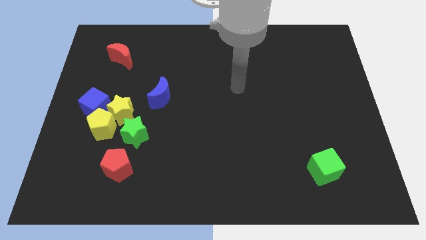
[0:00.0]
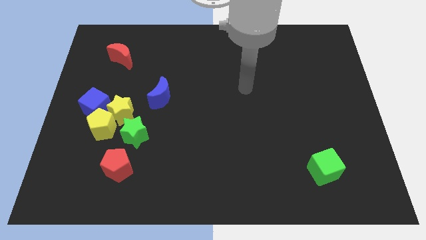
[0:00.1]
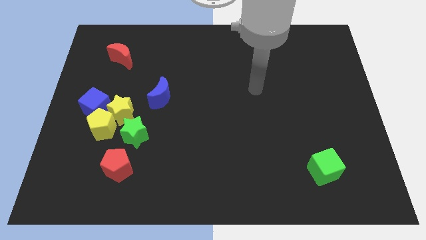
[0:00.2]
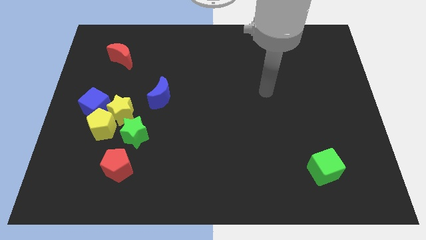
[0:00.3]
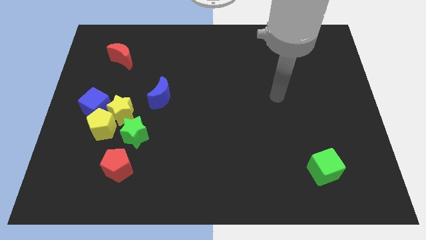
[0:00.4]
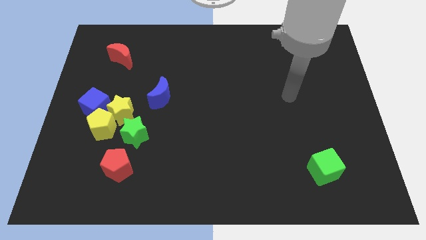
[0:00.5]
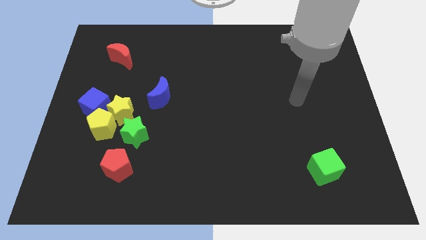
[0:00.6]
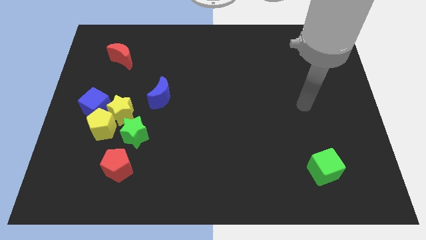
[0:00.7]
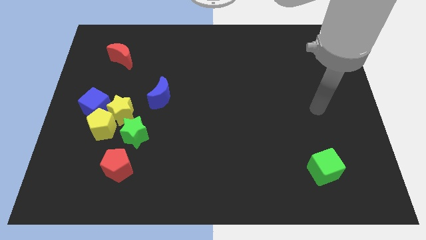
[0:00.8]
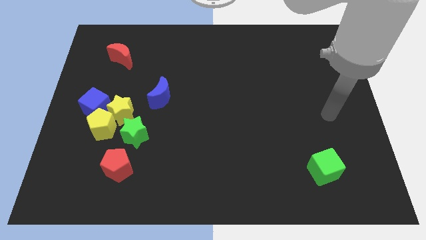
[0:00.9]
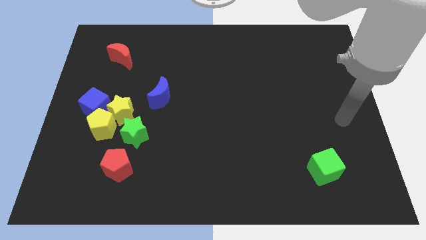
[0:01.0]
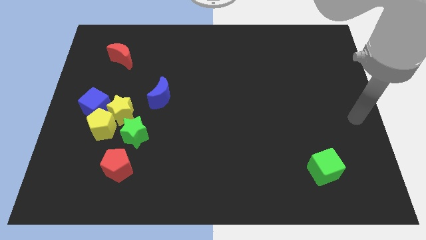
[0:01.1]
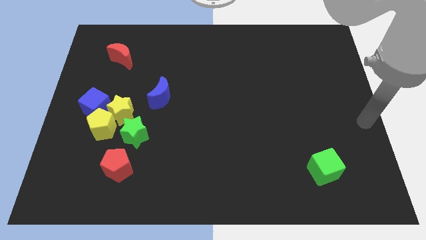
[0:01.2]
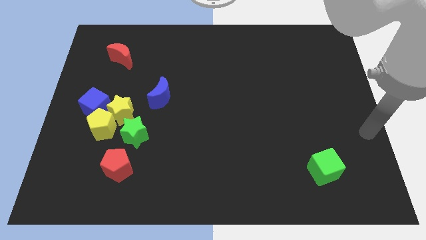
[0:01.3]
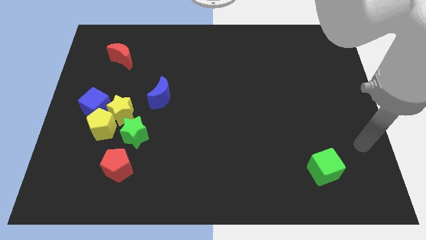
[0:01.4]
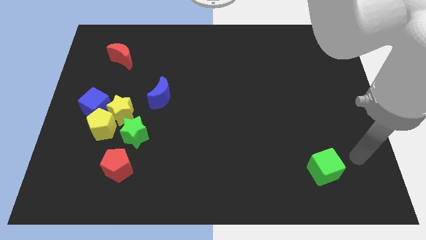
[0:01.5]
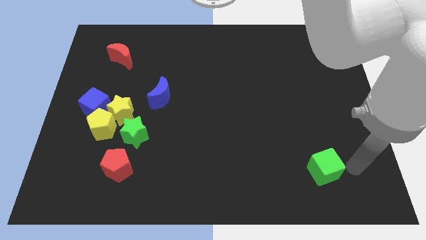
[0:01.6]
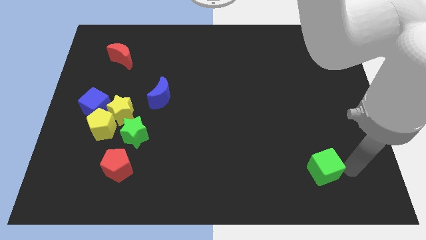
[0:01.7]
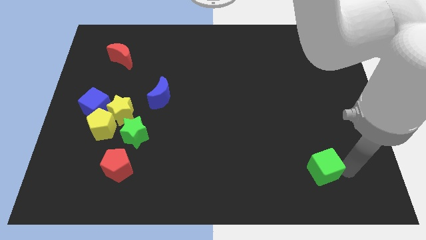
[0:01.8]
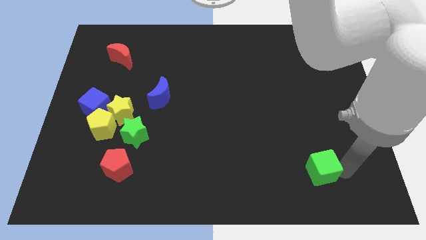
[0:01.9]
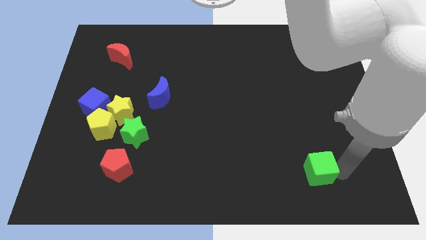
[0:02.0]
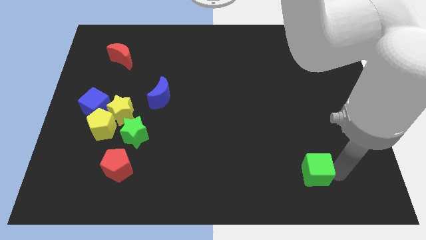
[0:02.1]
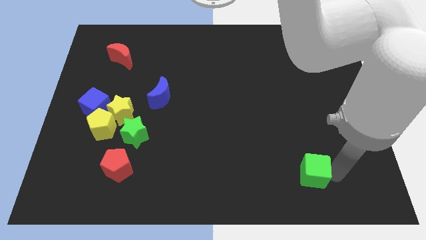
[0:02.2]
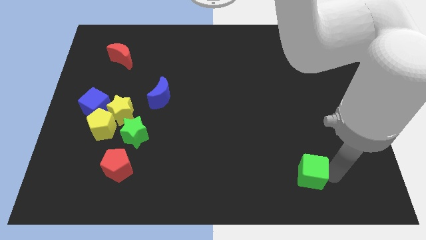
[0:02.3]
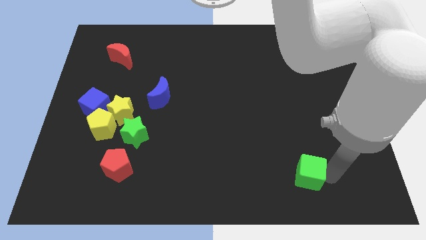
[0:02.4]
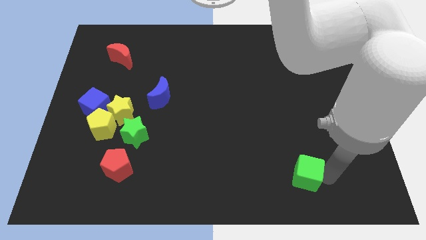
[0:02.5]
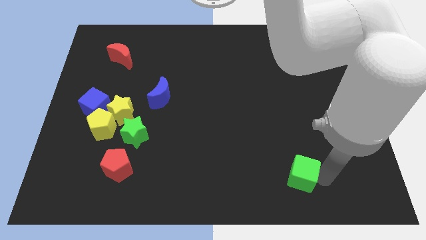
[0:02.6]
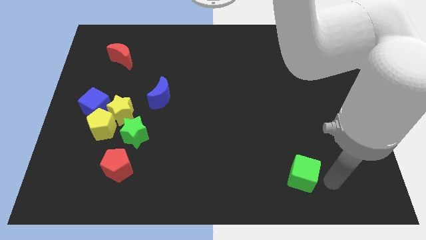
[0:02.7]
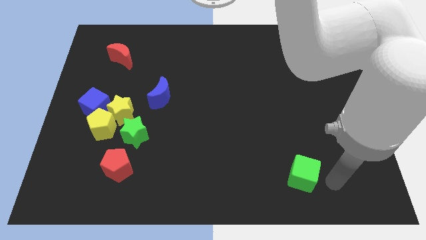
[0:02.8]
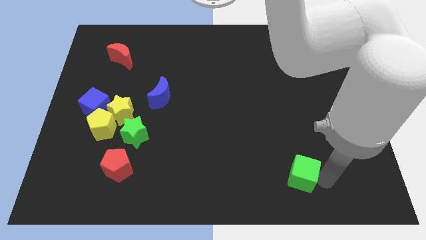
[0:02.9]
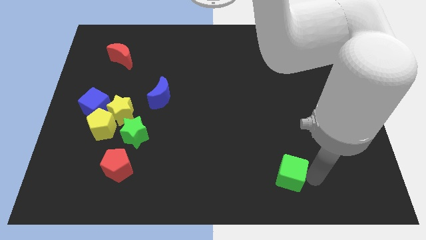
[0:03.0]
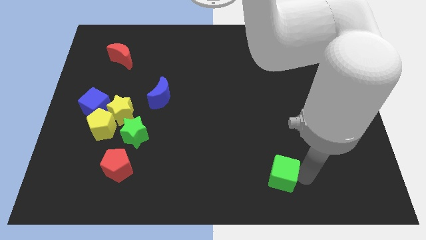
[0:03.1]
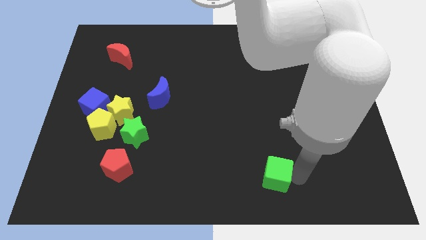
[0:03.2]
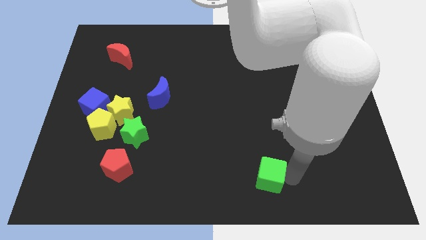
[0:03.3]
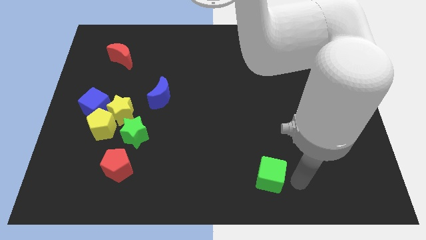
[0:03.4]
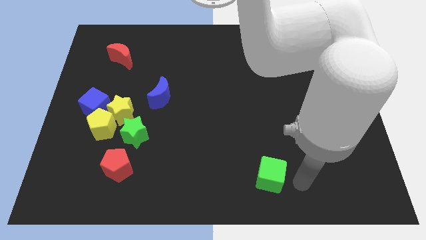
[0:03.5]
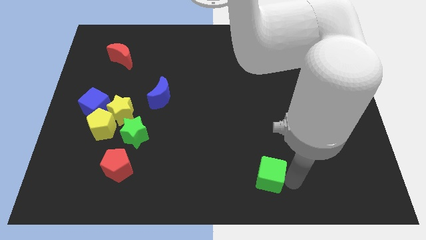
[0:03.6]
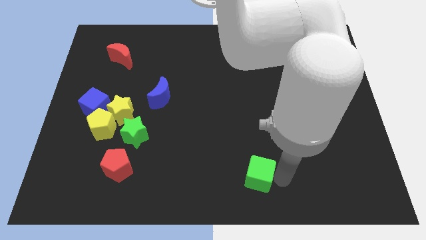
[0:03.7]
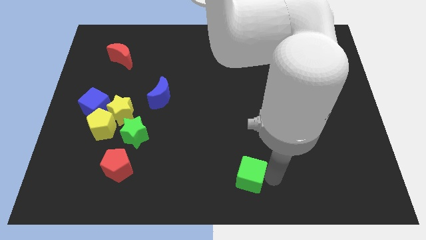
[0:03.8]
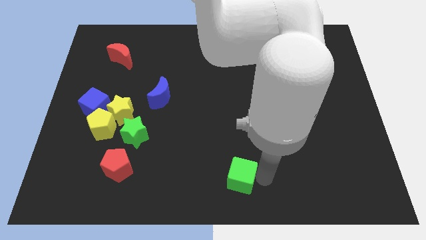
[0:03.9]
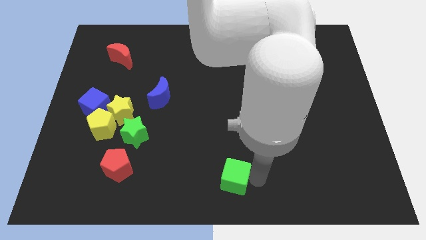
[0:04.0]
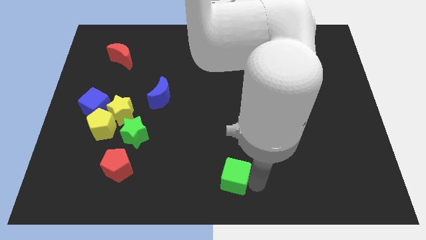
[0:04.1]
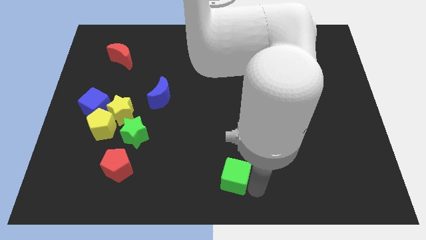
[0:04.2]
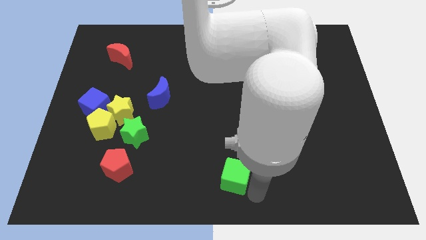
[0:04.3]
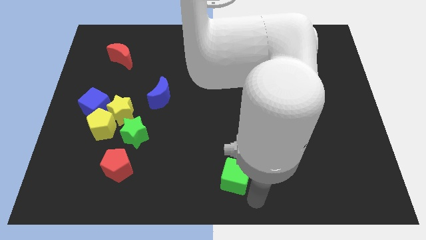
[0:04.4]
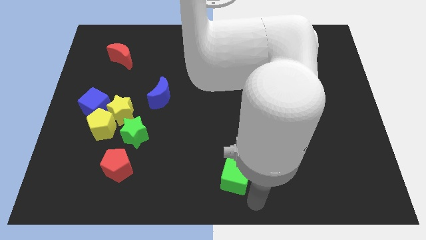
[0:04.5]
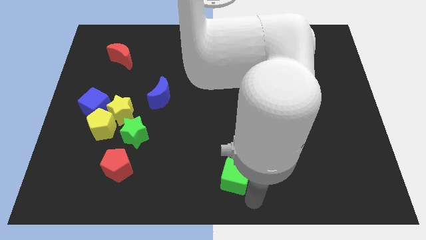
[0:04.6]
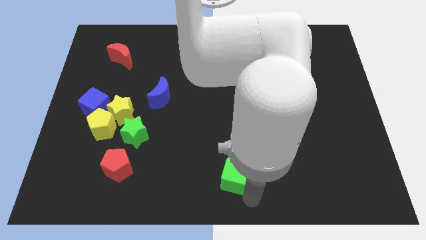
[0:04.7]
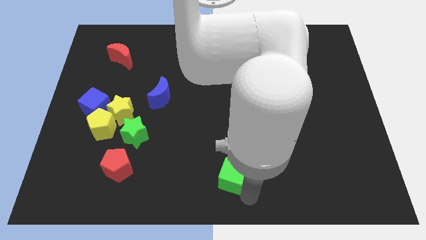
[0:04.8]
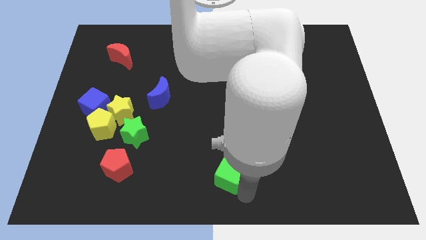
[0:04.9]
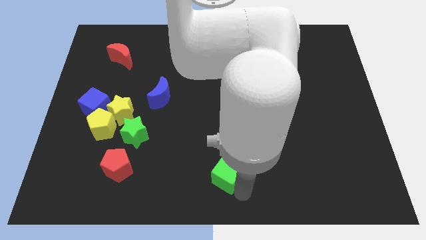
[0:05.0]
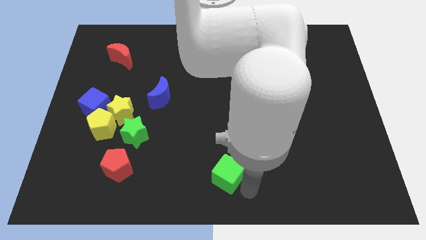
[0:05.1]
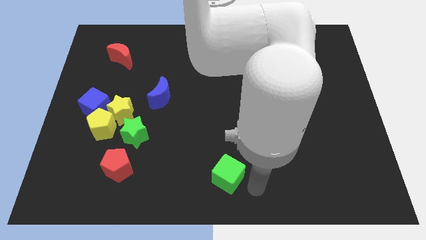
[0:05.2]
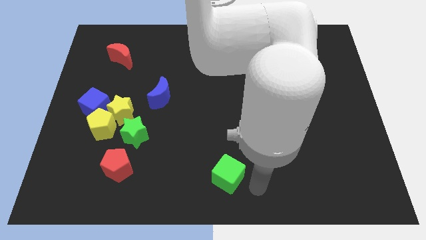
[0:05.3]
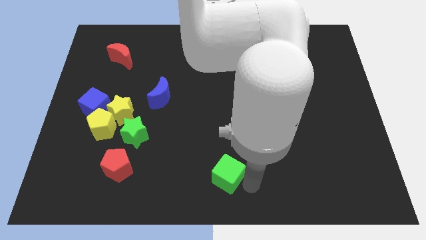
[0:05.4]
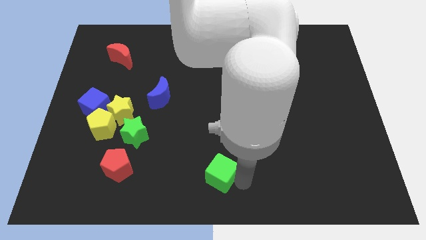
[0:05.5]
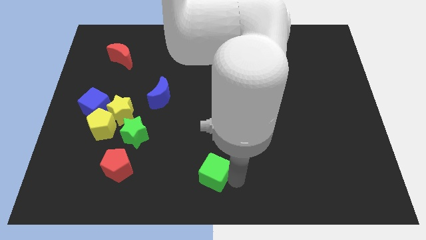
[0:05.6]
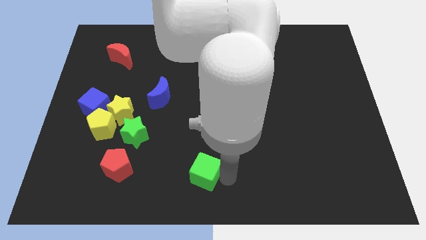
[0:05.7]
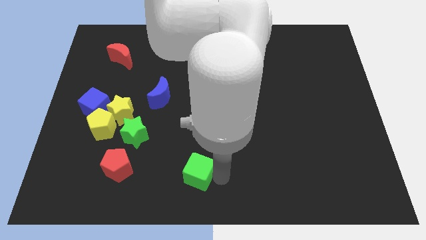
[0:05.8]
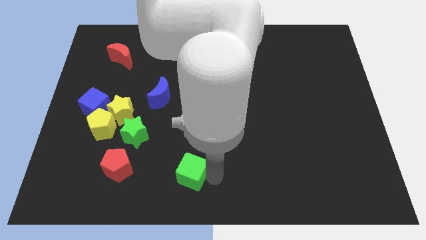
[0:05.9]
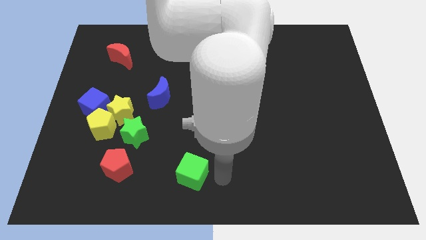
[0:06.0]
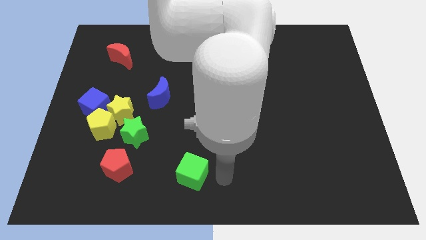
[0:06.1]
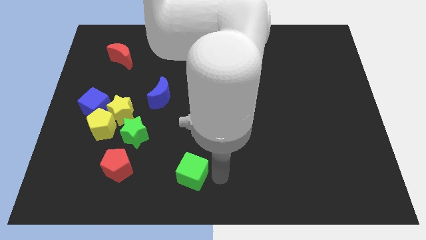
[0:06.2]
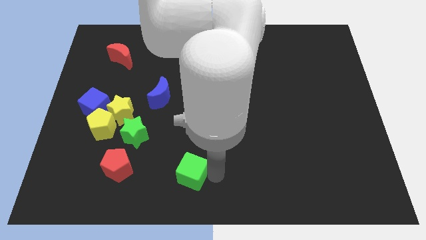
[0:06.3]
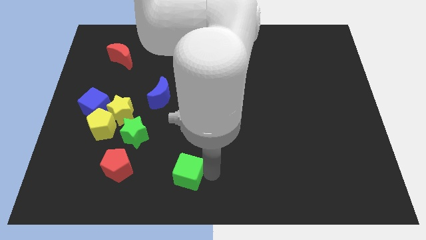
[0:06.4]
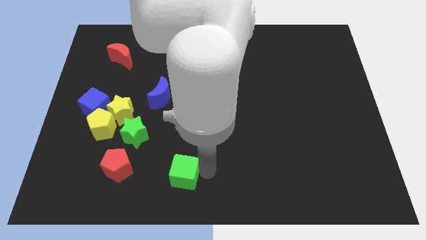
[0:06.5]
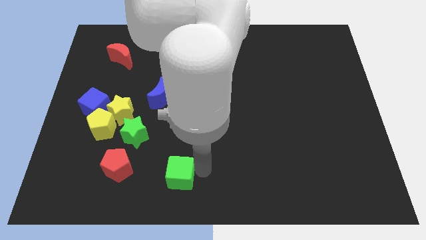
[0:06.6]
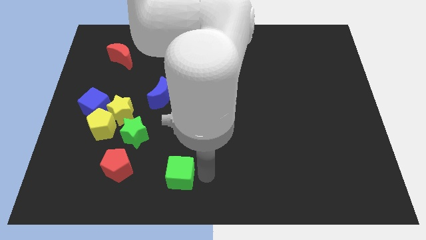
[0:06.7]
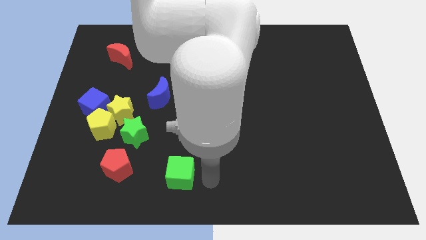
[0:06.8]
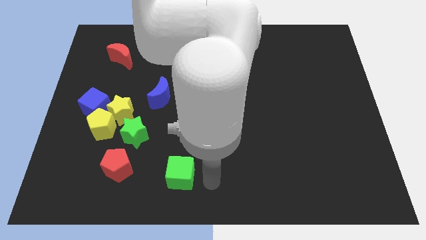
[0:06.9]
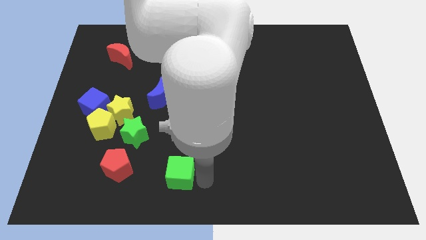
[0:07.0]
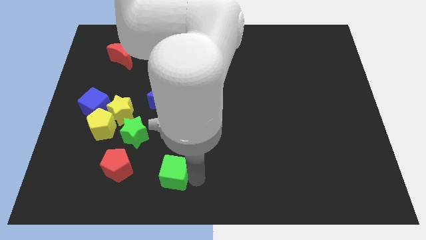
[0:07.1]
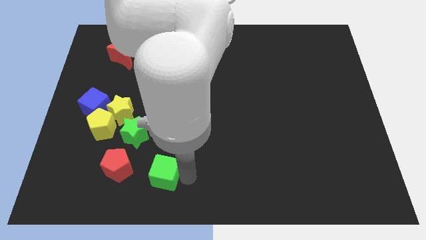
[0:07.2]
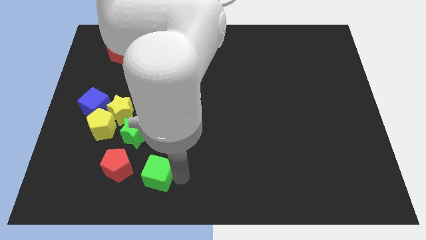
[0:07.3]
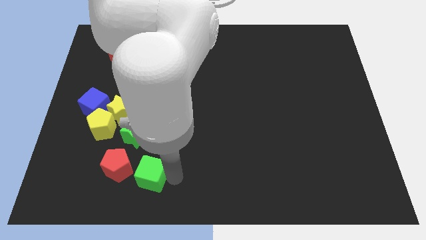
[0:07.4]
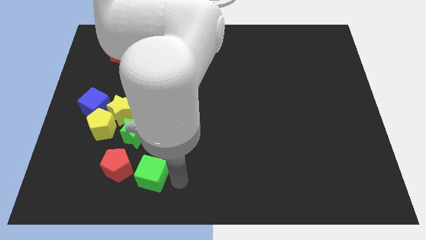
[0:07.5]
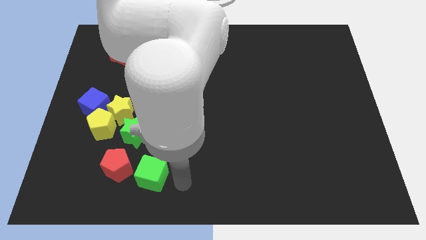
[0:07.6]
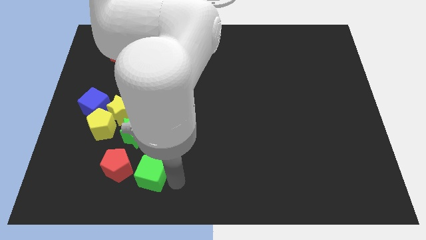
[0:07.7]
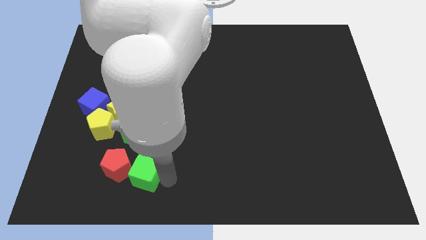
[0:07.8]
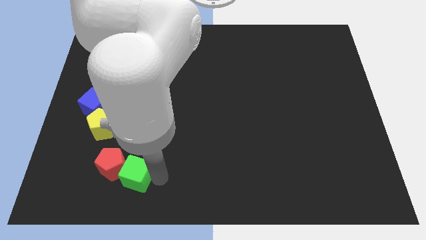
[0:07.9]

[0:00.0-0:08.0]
push the green cube close to the red pentagon

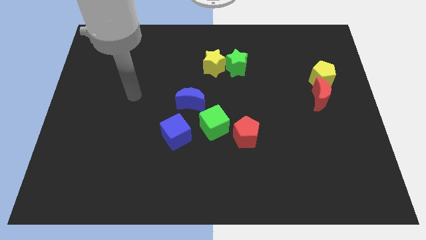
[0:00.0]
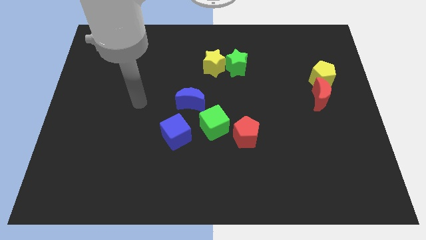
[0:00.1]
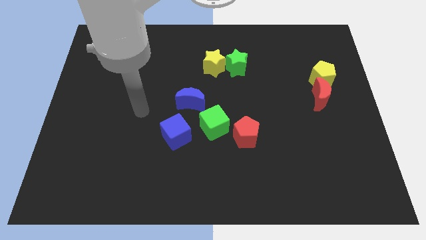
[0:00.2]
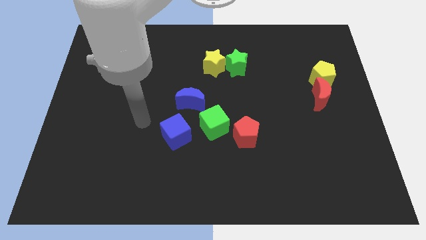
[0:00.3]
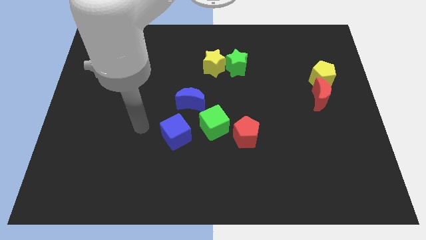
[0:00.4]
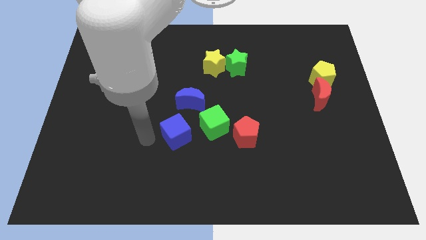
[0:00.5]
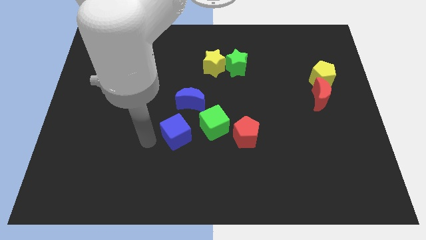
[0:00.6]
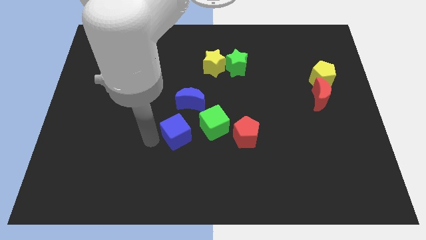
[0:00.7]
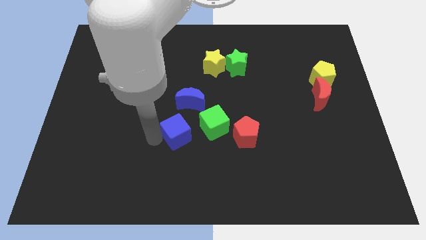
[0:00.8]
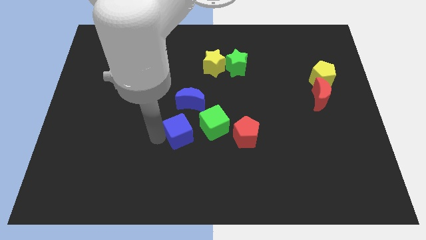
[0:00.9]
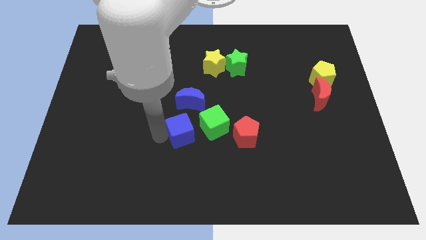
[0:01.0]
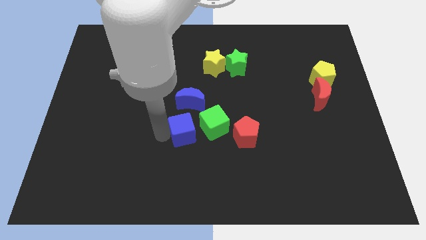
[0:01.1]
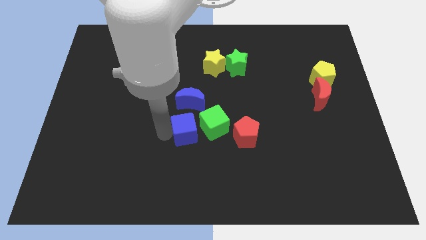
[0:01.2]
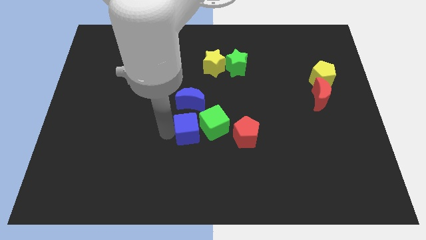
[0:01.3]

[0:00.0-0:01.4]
move the blue cube close to the green cube
